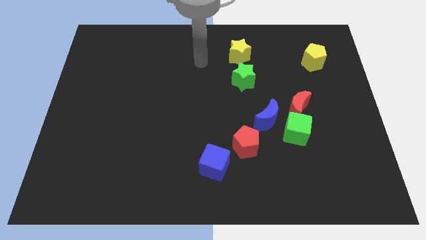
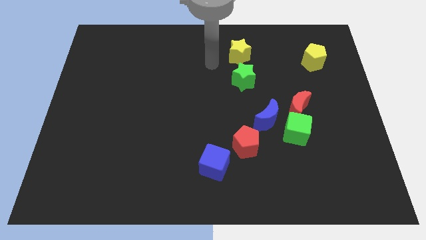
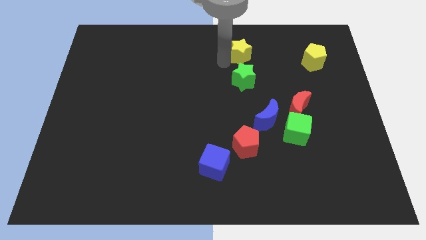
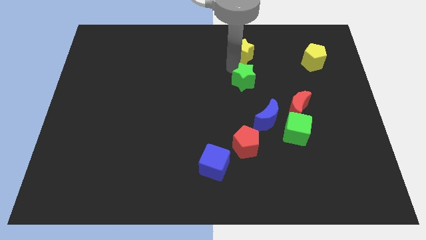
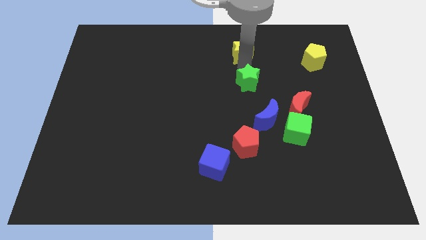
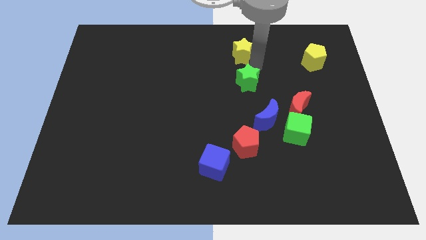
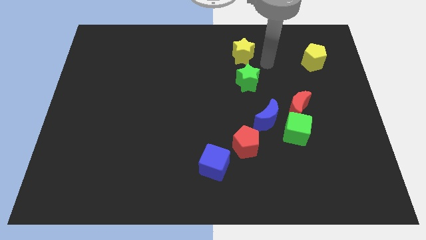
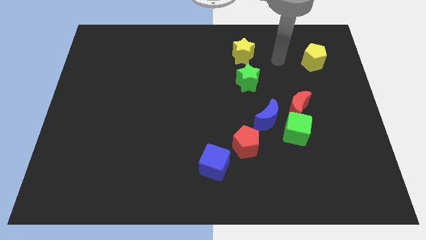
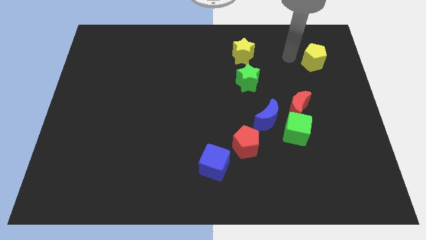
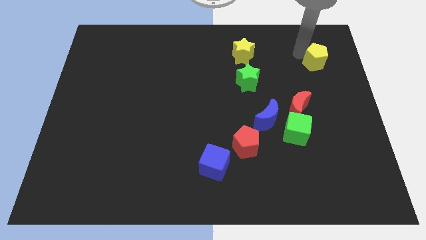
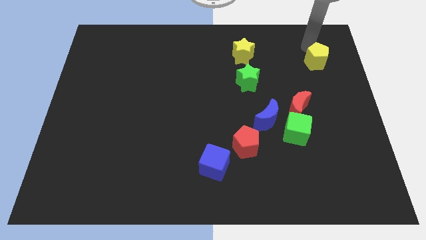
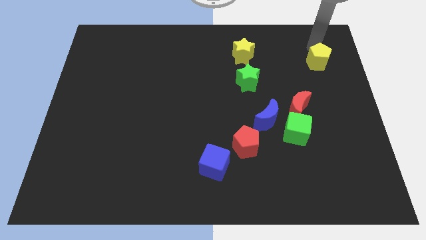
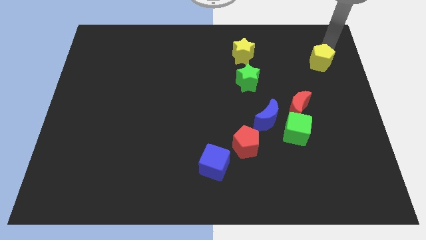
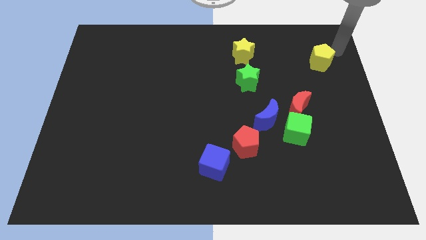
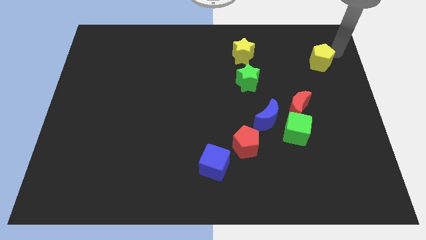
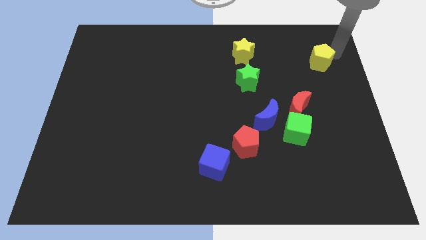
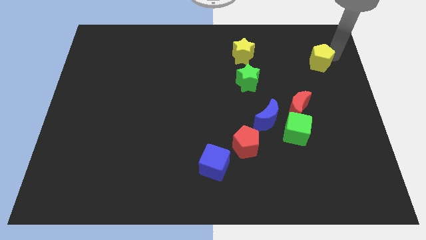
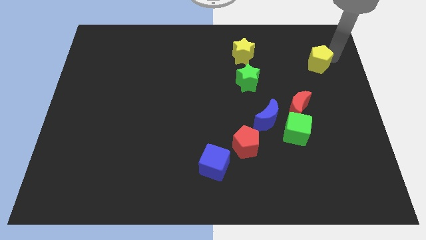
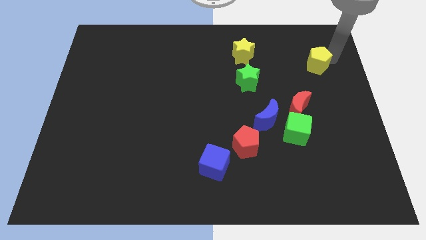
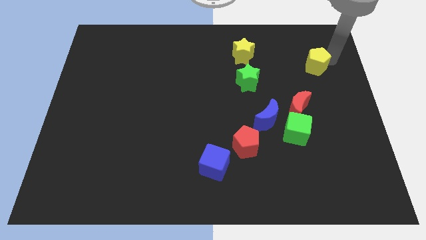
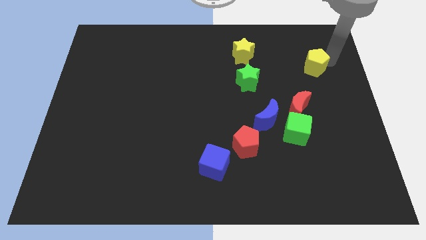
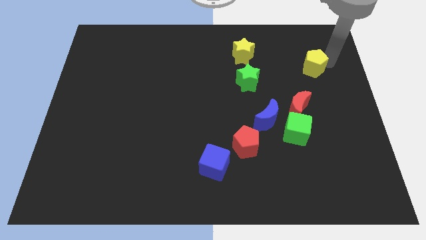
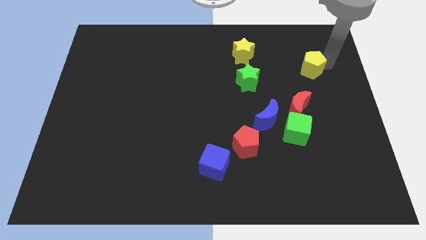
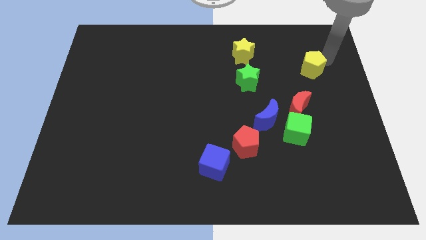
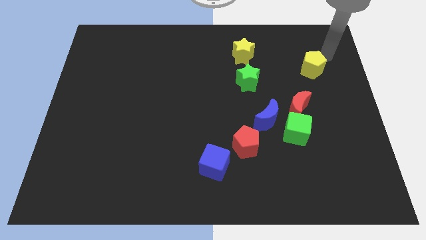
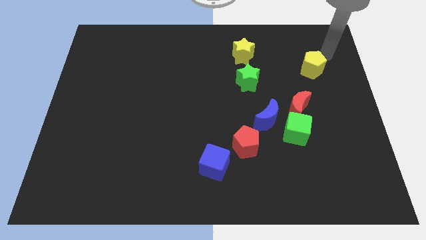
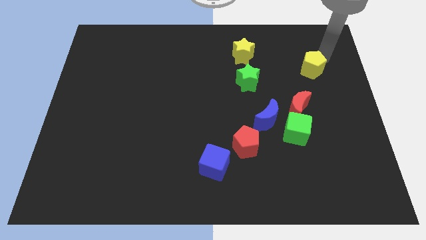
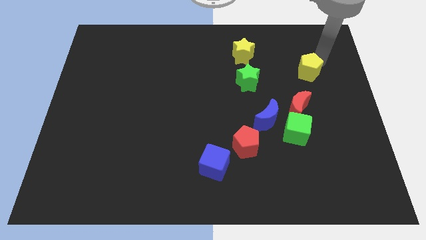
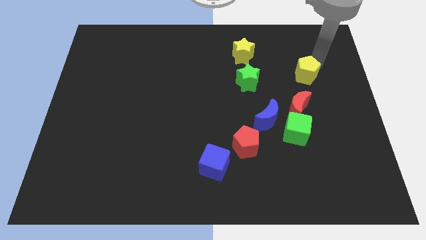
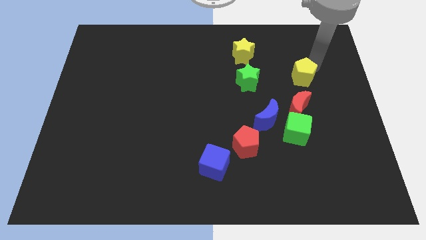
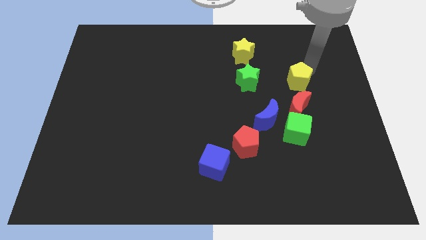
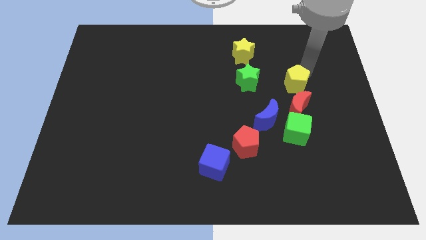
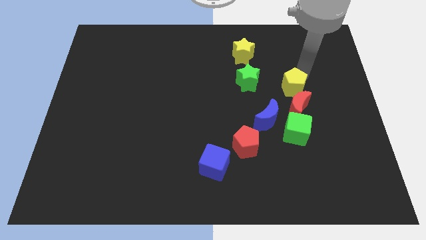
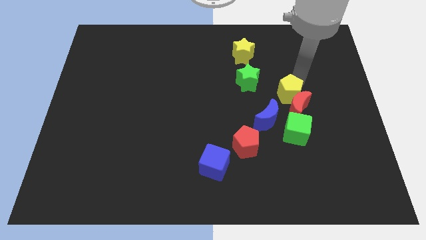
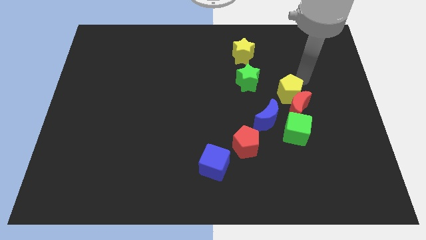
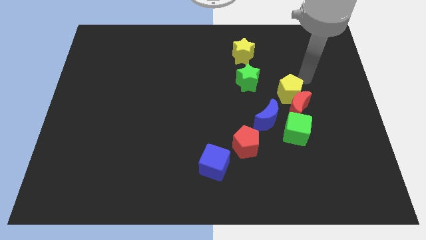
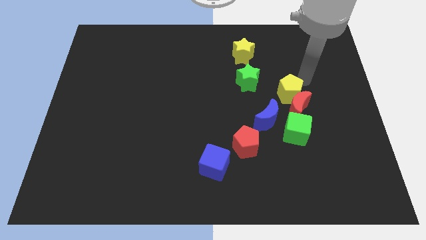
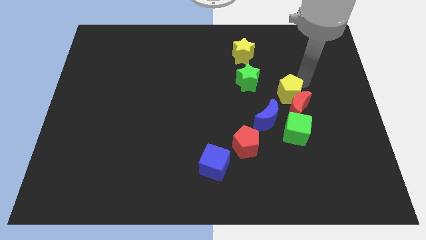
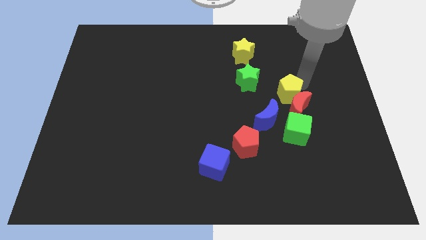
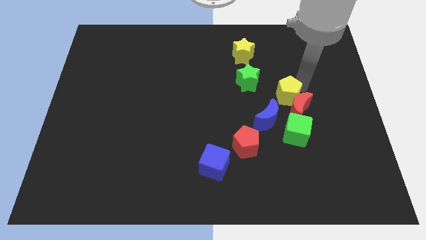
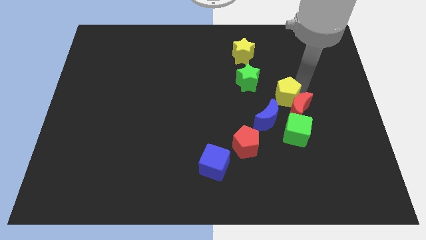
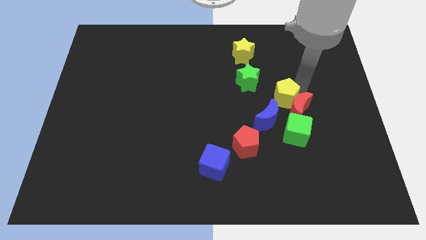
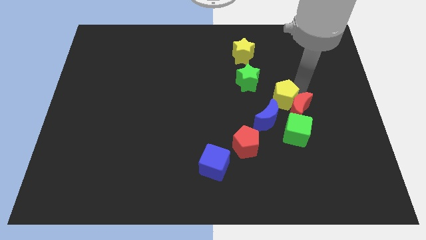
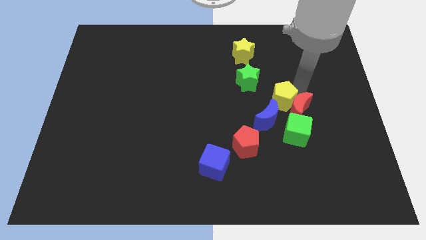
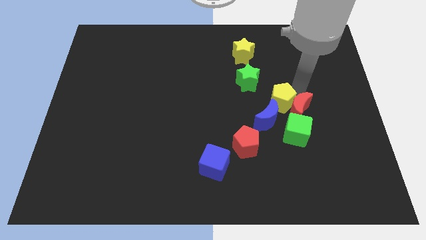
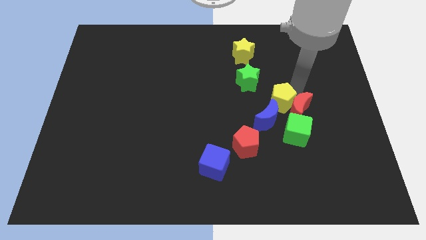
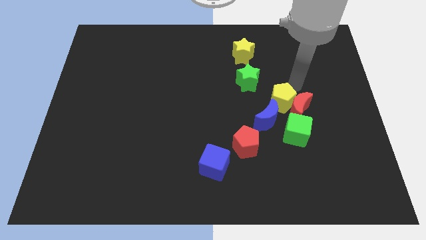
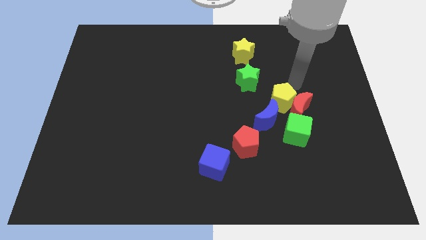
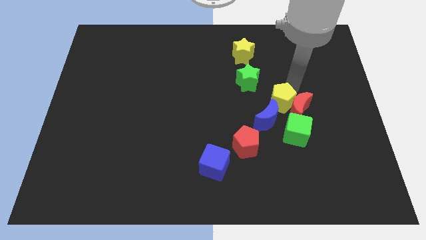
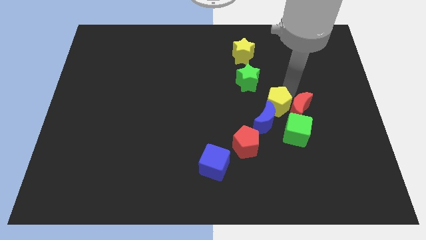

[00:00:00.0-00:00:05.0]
push the yellow pentagon next to the blue moon

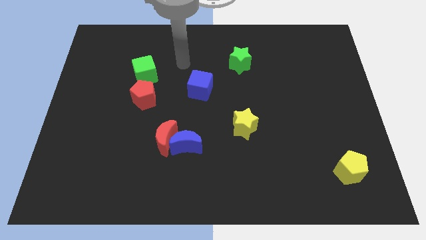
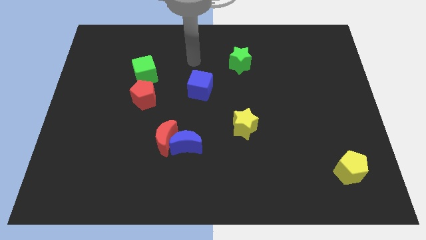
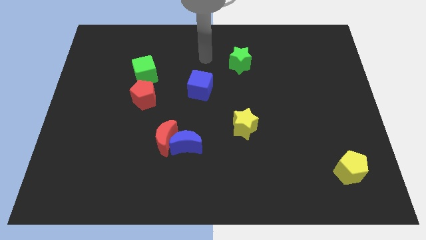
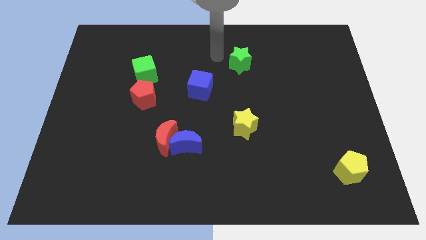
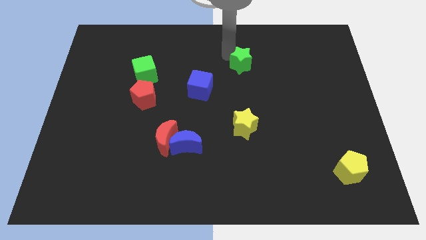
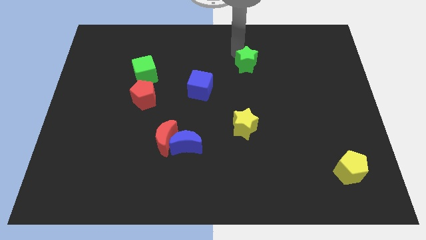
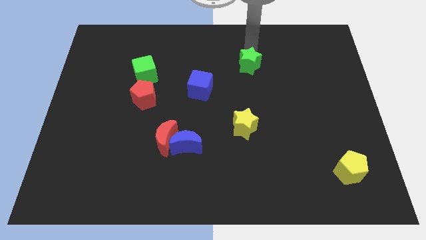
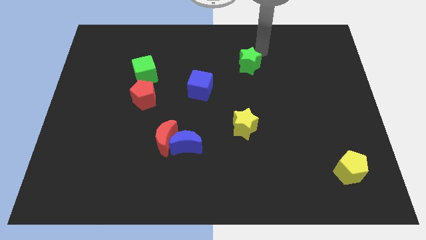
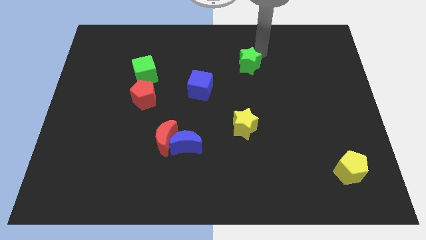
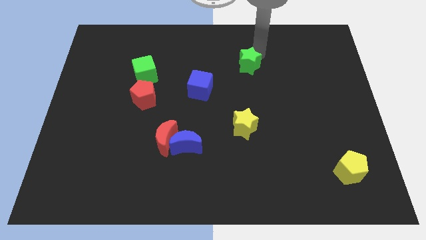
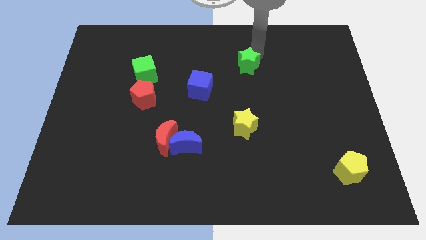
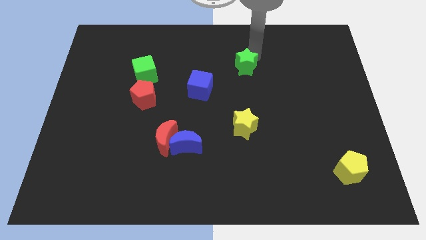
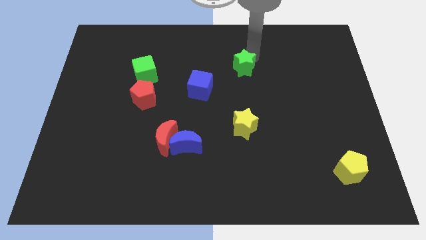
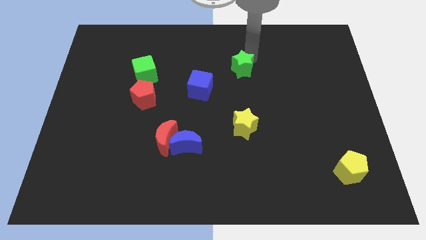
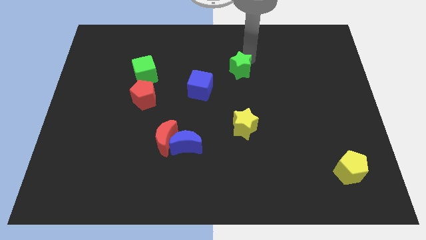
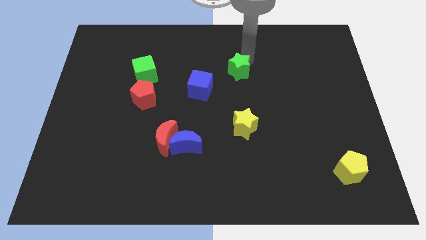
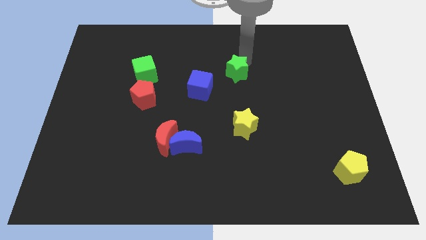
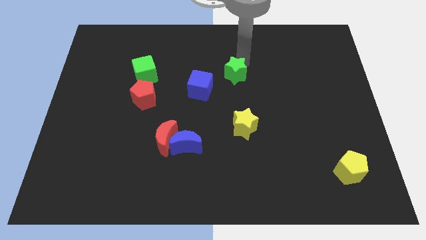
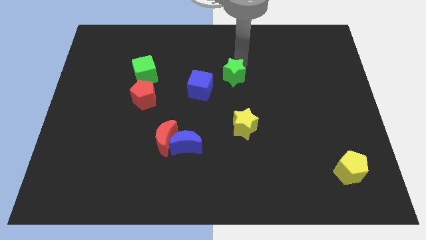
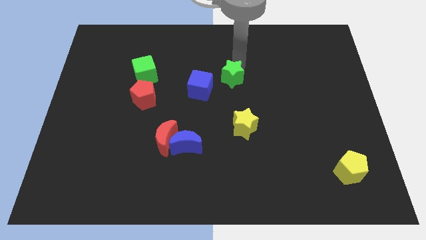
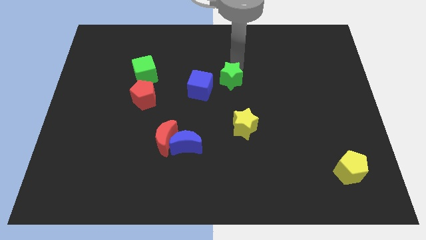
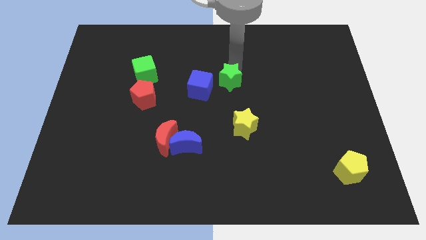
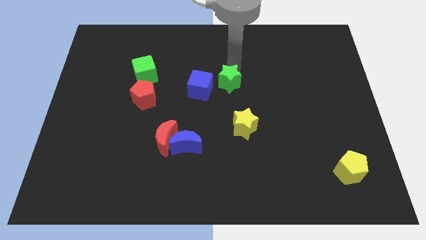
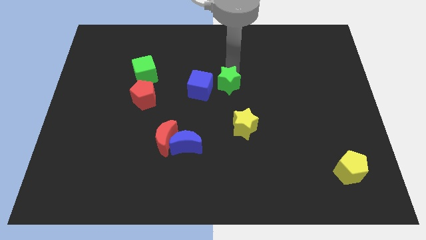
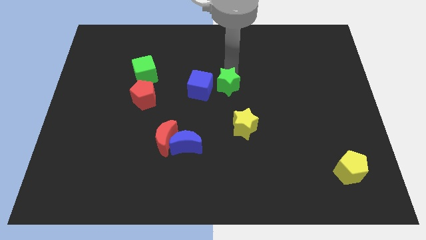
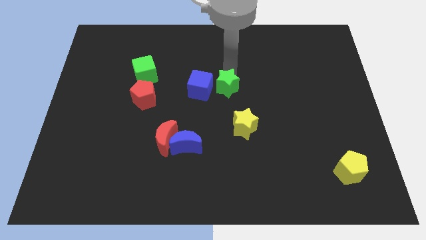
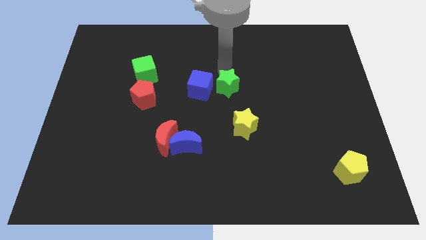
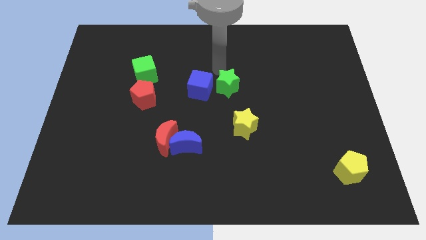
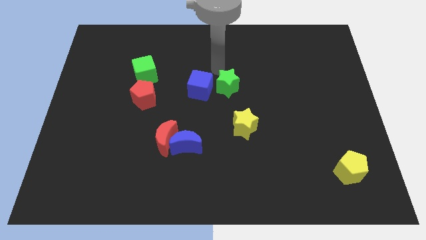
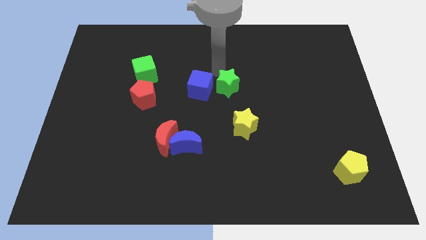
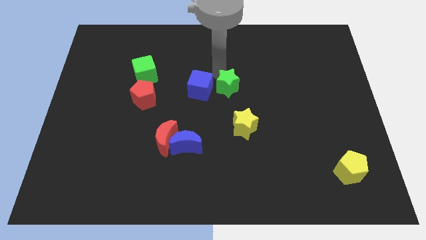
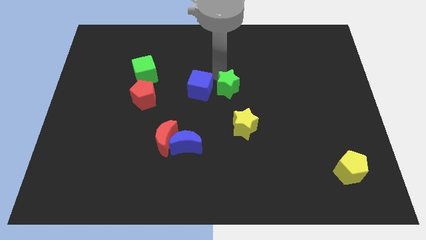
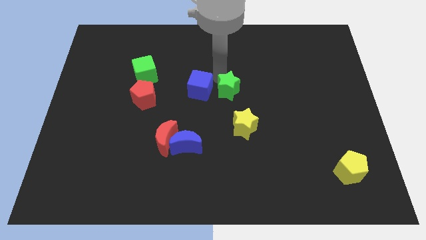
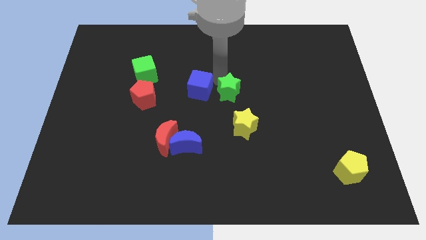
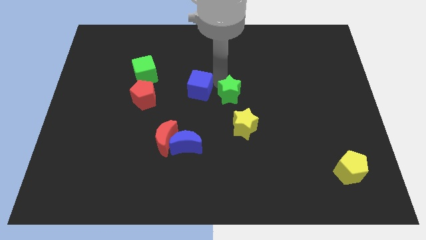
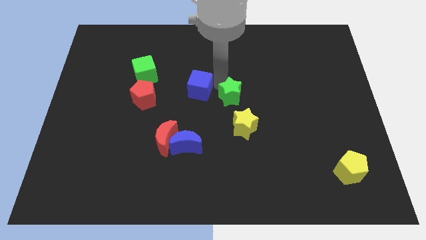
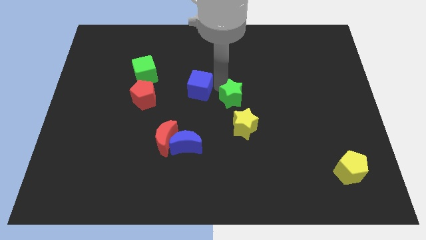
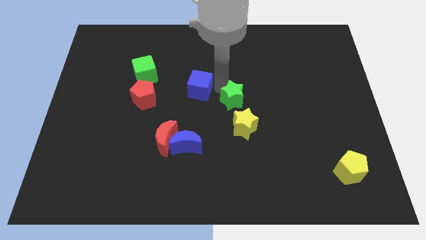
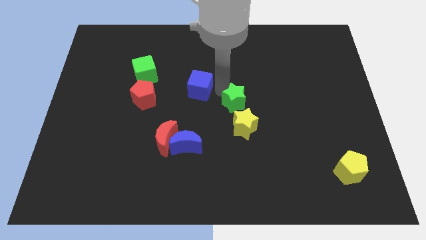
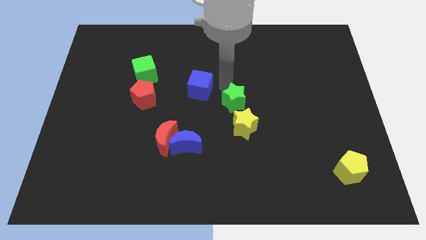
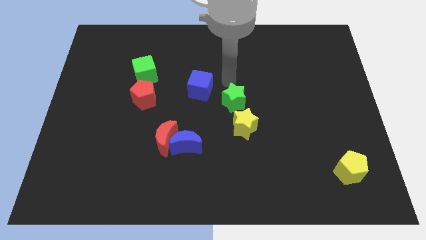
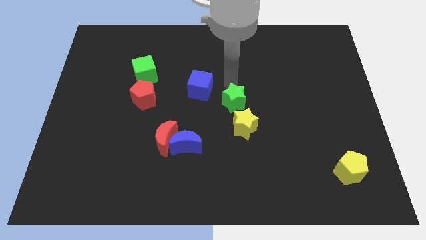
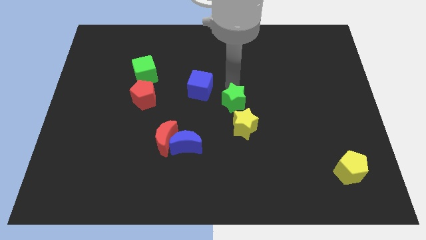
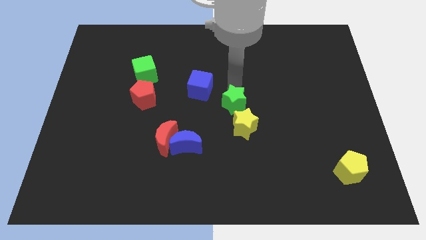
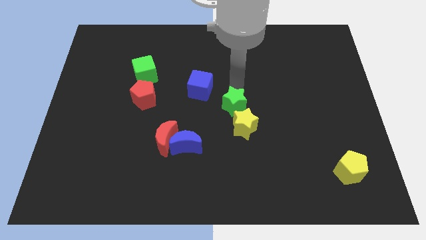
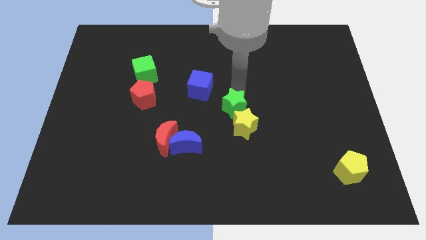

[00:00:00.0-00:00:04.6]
push the green star to the yellow star
